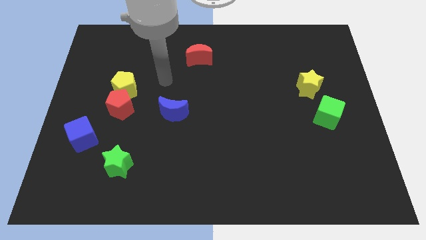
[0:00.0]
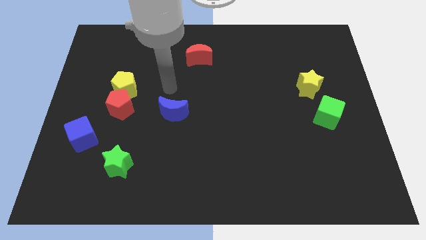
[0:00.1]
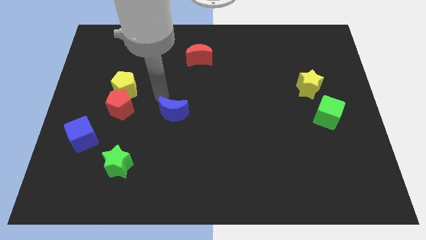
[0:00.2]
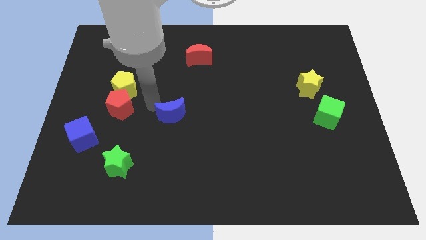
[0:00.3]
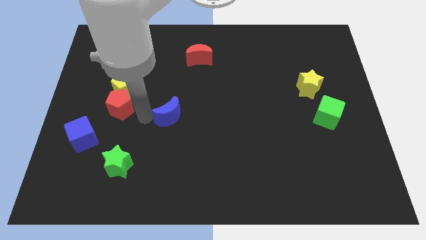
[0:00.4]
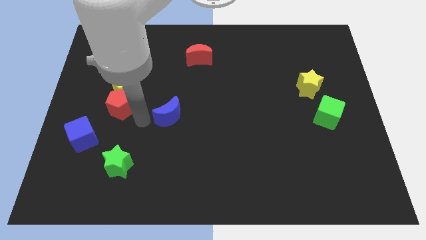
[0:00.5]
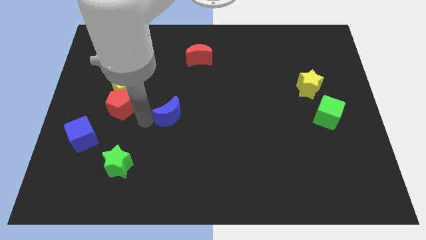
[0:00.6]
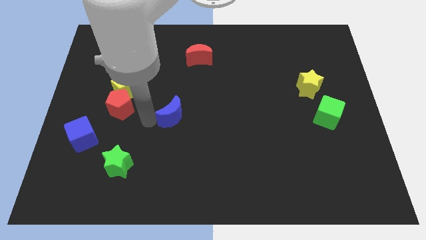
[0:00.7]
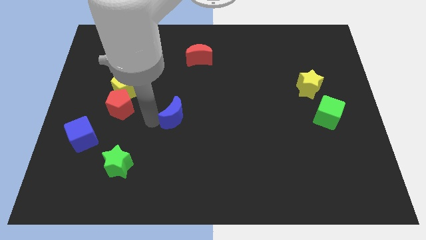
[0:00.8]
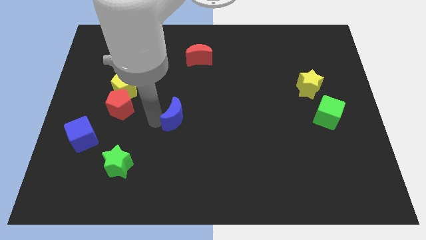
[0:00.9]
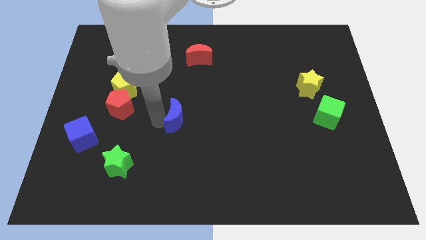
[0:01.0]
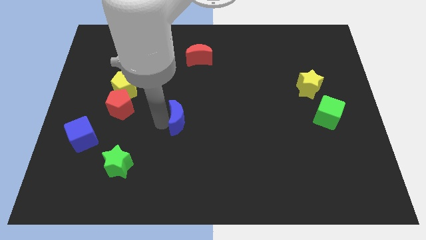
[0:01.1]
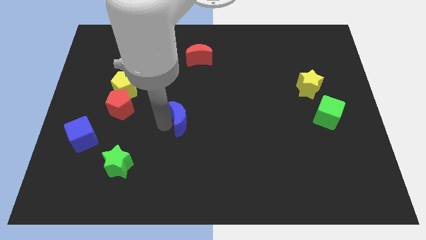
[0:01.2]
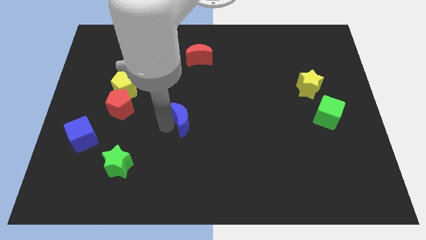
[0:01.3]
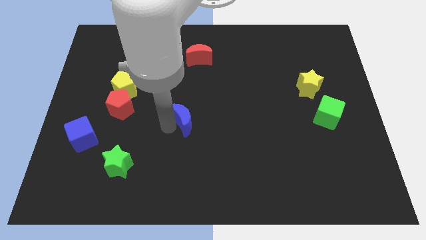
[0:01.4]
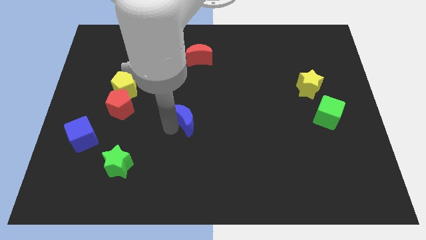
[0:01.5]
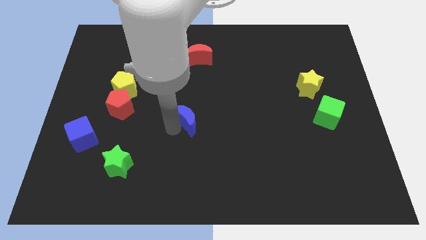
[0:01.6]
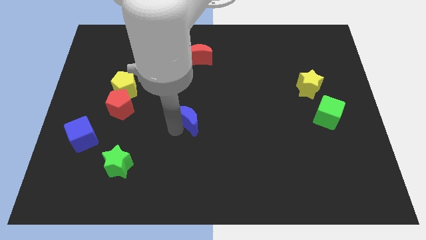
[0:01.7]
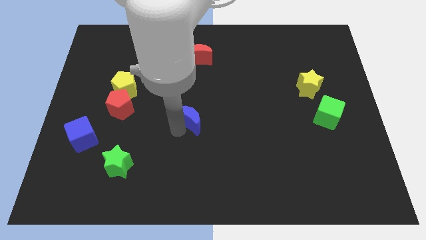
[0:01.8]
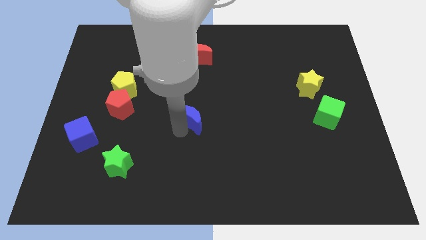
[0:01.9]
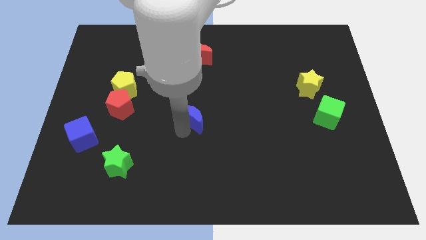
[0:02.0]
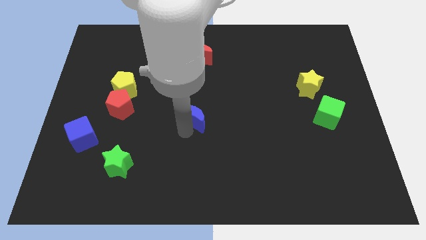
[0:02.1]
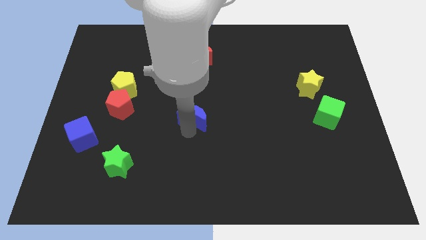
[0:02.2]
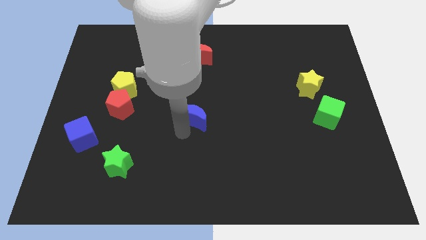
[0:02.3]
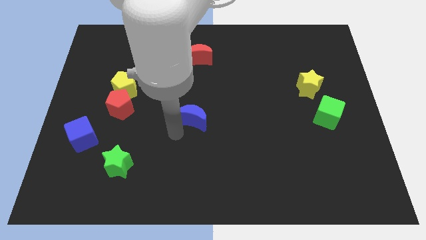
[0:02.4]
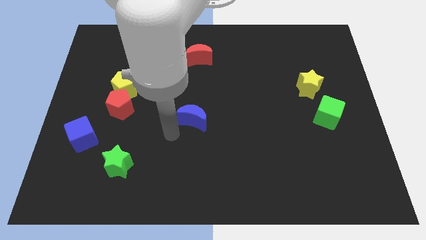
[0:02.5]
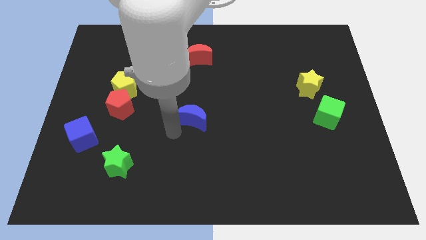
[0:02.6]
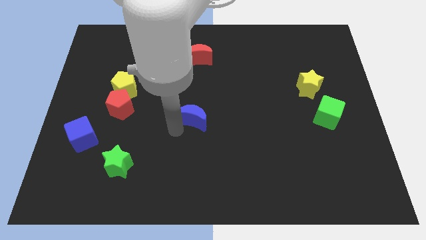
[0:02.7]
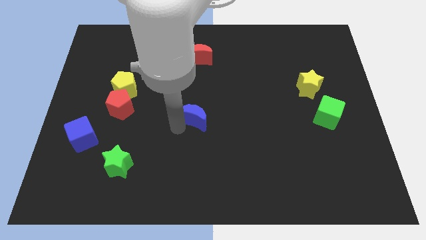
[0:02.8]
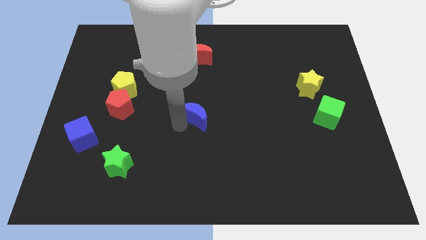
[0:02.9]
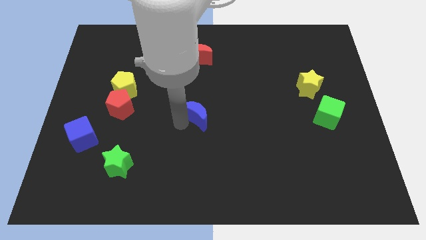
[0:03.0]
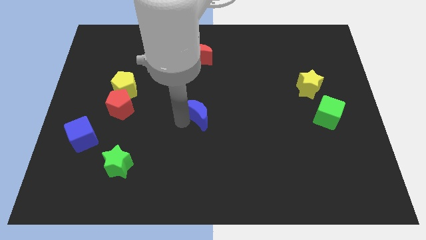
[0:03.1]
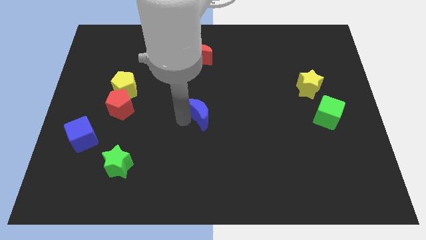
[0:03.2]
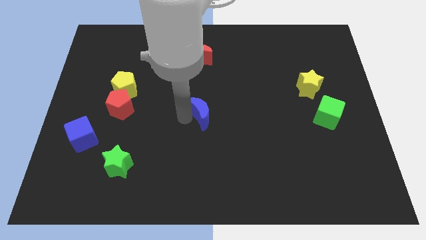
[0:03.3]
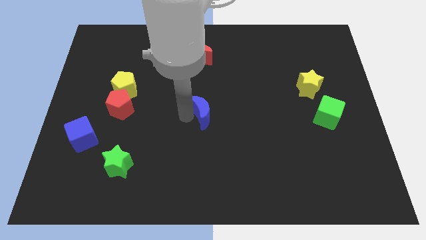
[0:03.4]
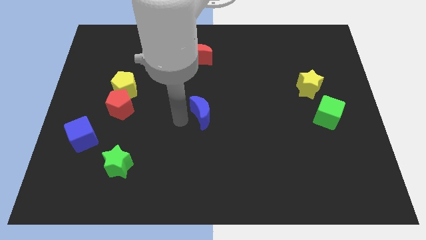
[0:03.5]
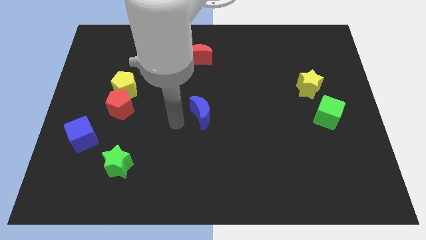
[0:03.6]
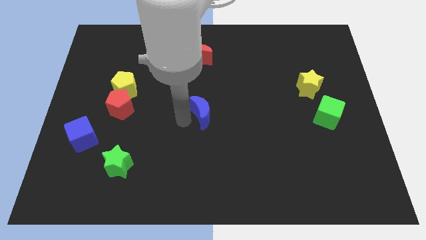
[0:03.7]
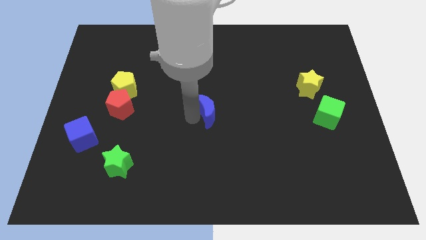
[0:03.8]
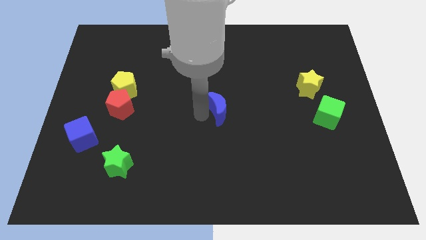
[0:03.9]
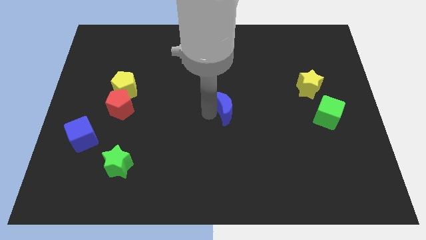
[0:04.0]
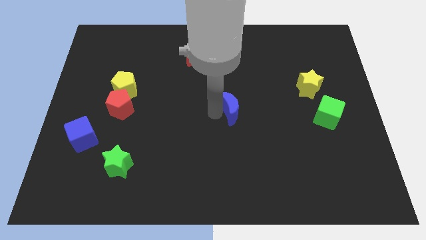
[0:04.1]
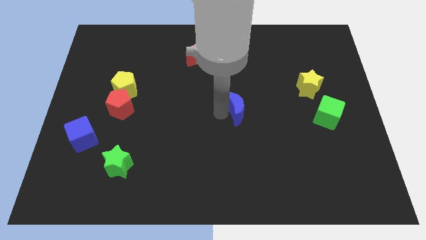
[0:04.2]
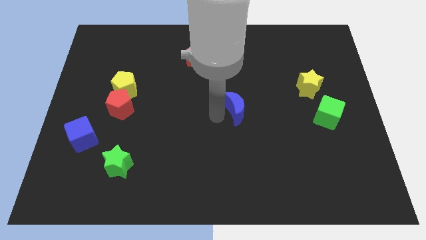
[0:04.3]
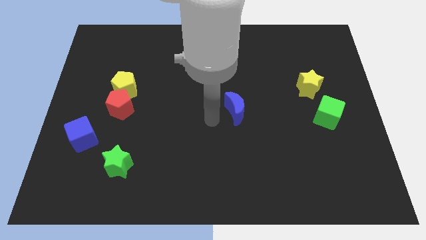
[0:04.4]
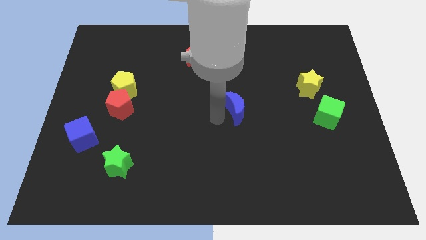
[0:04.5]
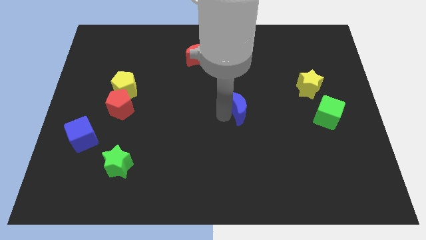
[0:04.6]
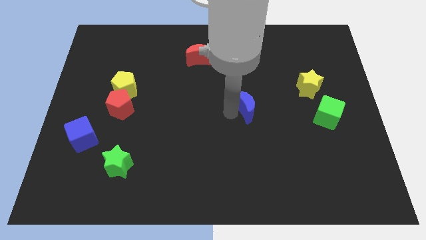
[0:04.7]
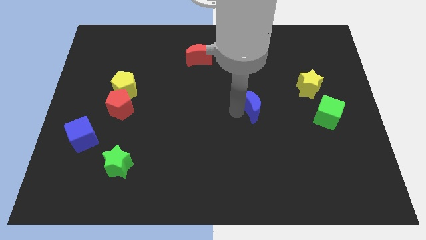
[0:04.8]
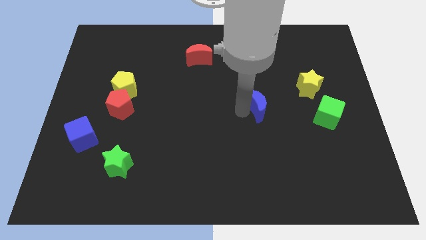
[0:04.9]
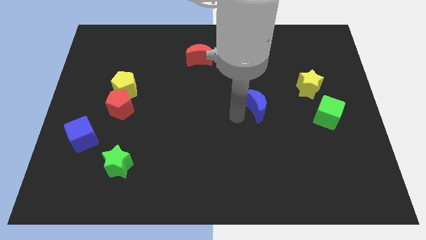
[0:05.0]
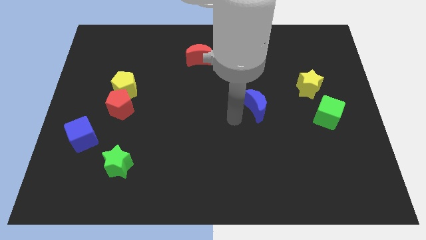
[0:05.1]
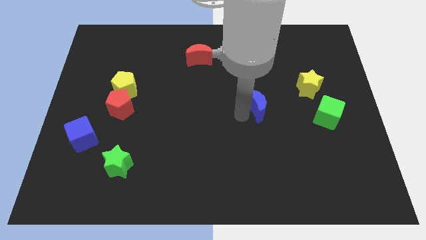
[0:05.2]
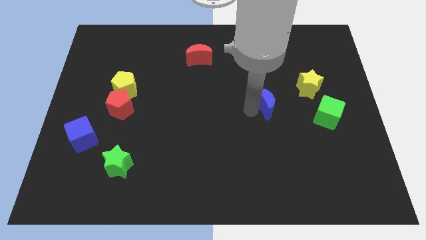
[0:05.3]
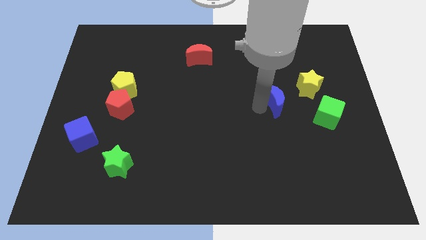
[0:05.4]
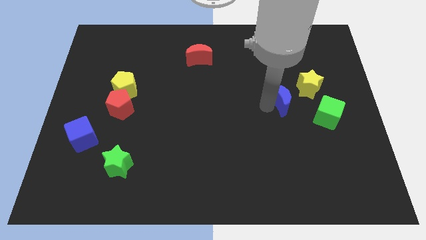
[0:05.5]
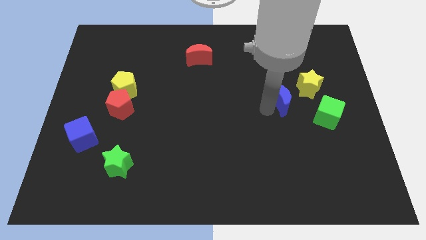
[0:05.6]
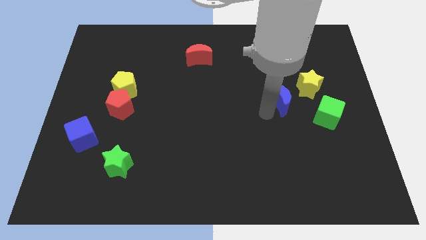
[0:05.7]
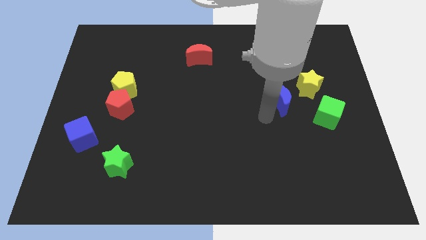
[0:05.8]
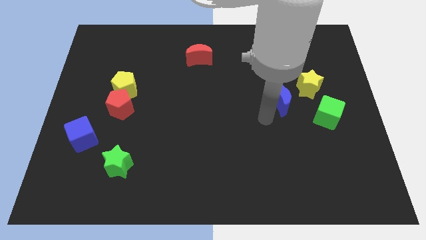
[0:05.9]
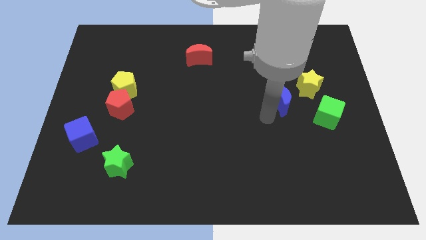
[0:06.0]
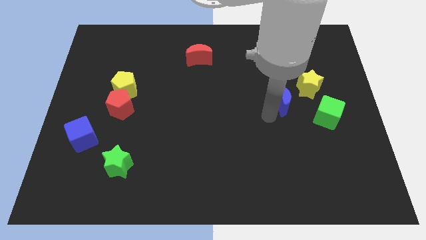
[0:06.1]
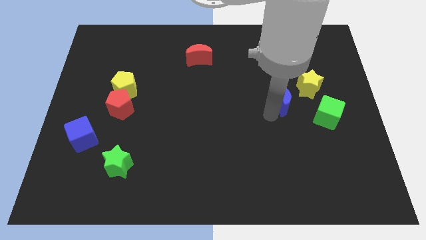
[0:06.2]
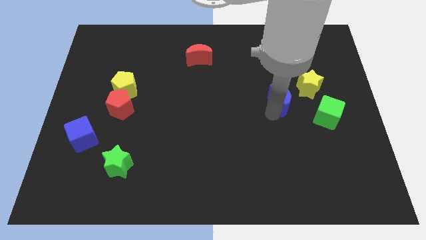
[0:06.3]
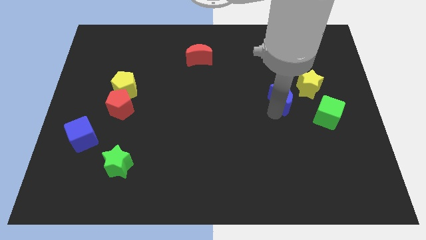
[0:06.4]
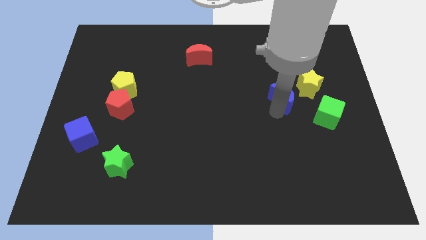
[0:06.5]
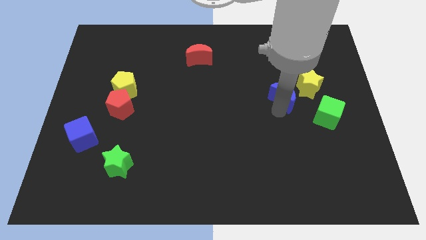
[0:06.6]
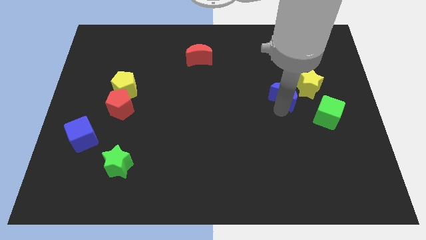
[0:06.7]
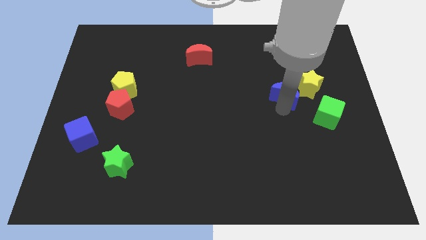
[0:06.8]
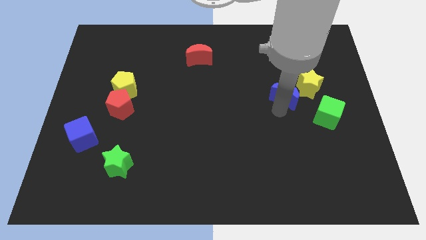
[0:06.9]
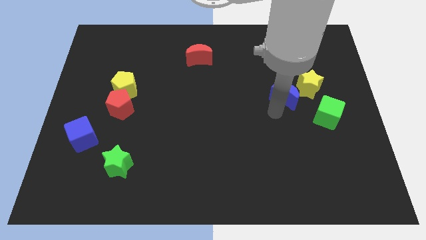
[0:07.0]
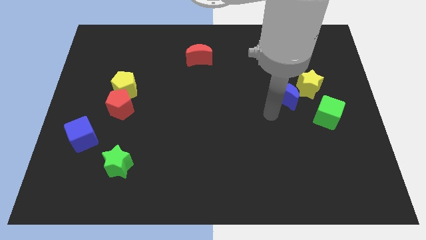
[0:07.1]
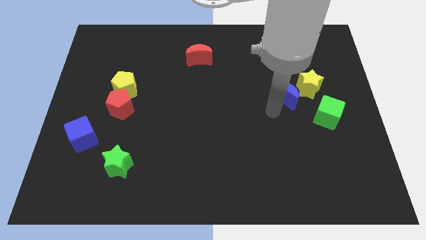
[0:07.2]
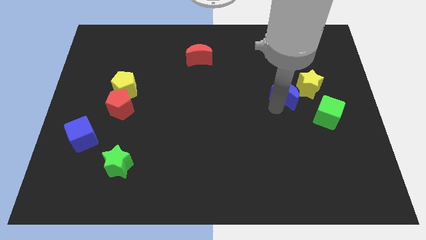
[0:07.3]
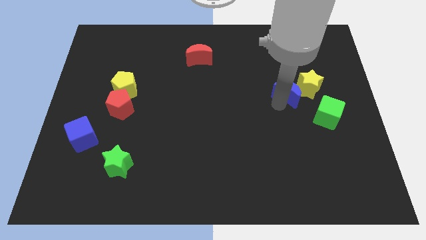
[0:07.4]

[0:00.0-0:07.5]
move the blue moon to the yellow star
